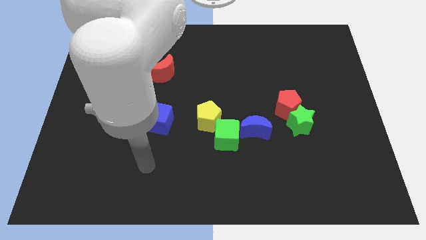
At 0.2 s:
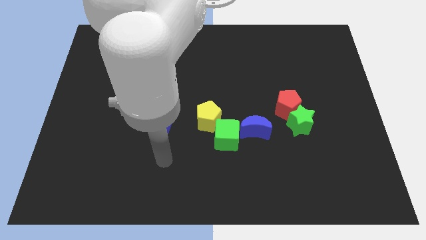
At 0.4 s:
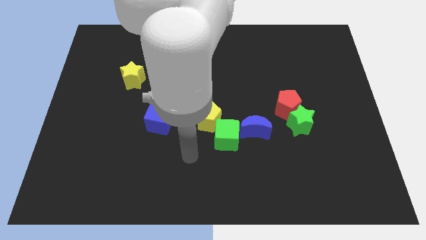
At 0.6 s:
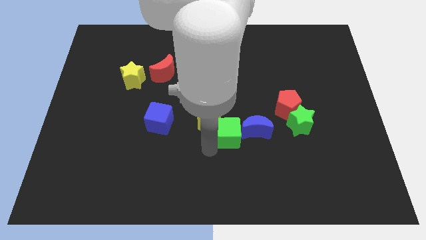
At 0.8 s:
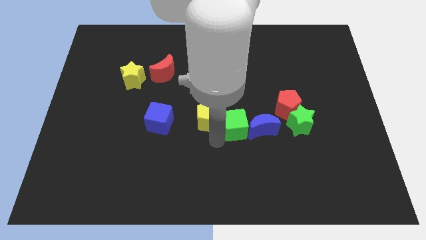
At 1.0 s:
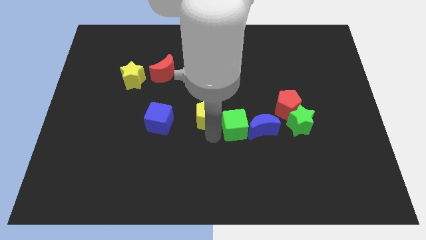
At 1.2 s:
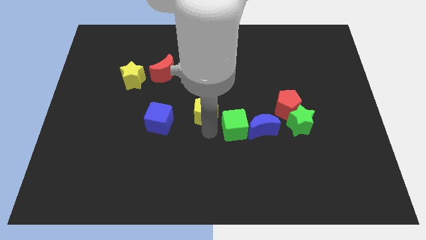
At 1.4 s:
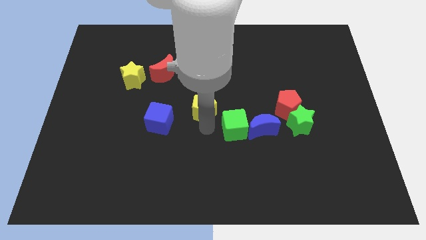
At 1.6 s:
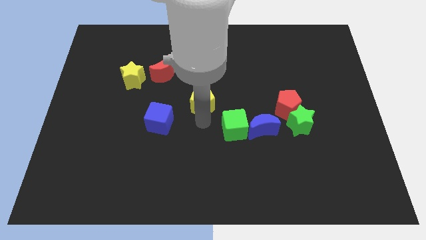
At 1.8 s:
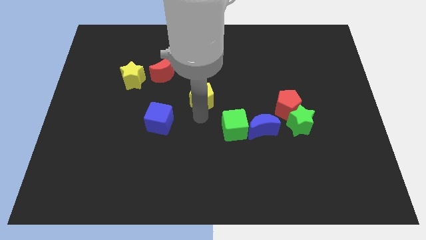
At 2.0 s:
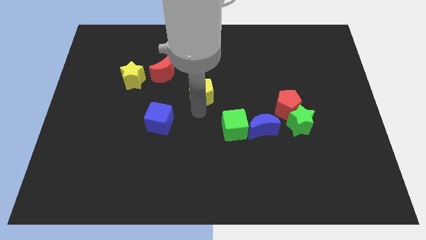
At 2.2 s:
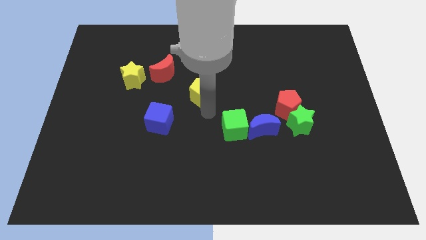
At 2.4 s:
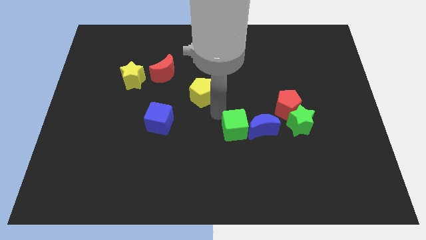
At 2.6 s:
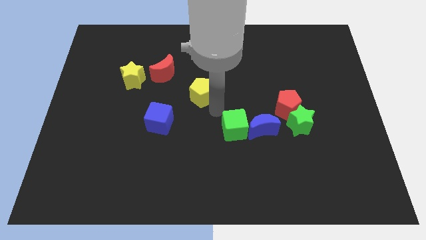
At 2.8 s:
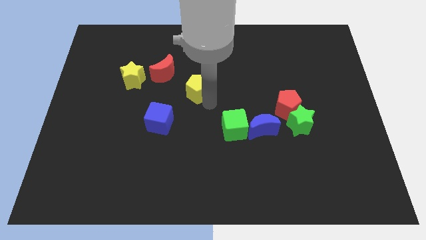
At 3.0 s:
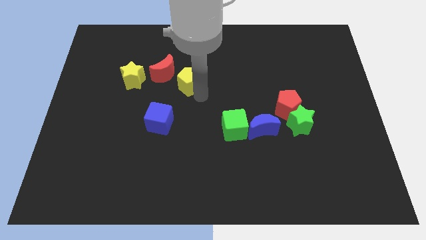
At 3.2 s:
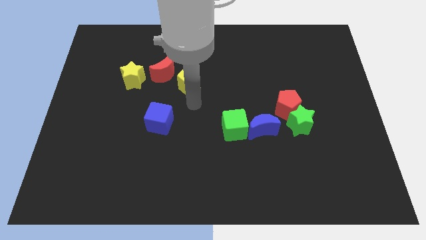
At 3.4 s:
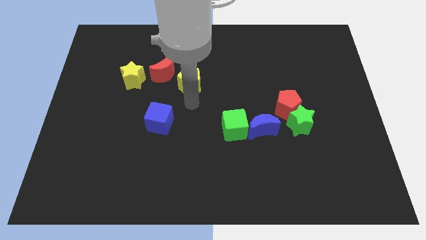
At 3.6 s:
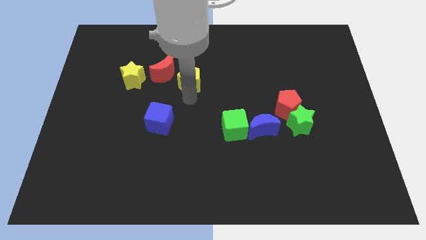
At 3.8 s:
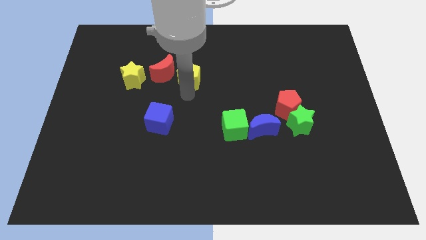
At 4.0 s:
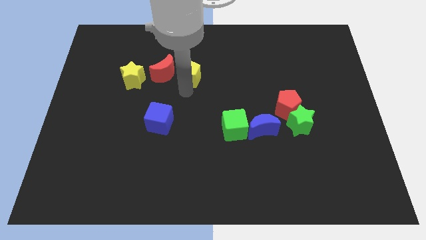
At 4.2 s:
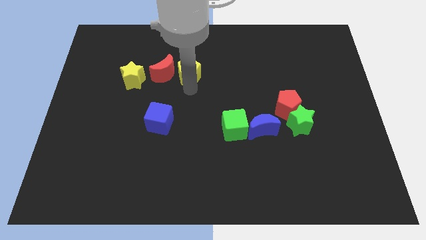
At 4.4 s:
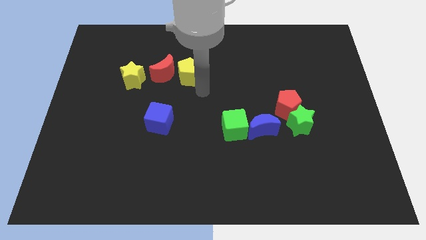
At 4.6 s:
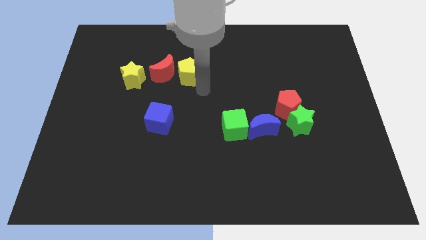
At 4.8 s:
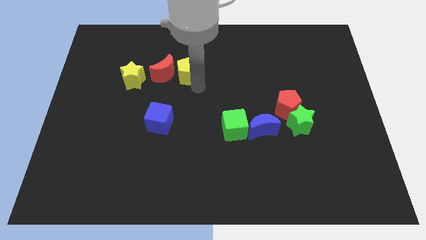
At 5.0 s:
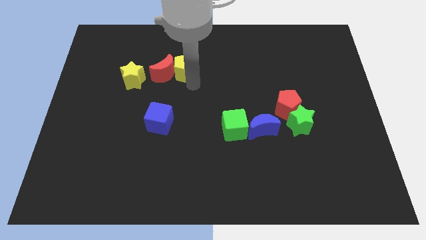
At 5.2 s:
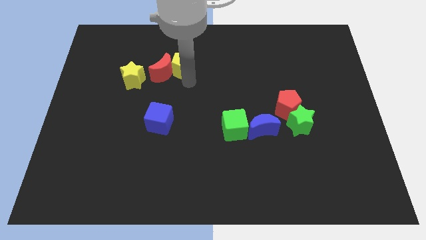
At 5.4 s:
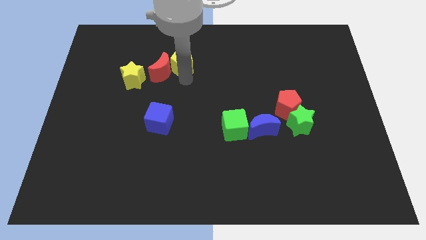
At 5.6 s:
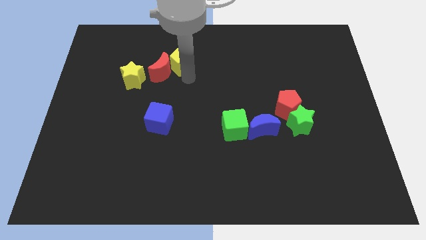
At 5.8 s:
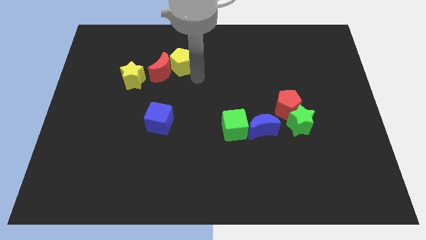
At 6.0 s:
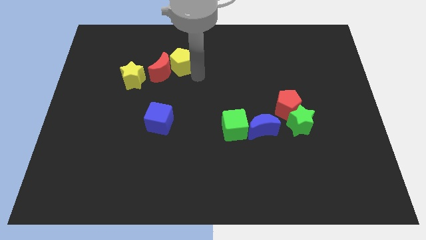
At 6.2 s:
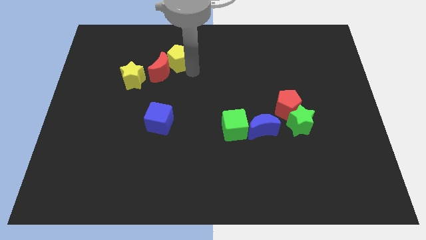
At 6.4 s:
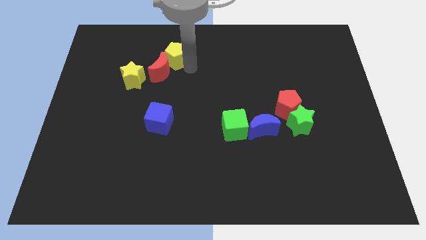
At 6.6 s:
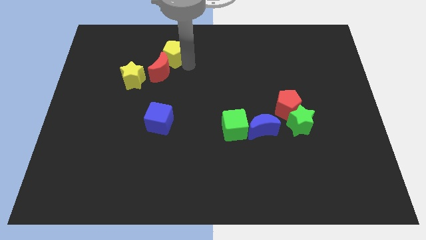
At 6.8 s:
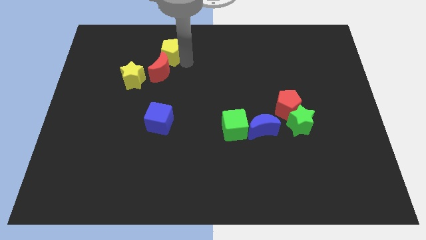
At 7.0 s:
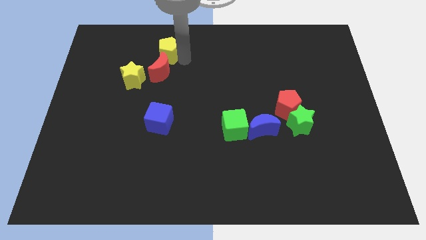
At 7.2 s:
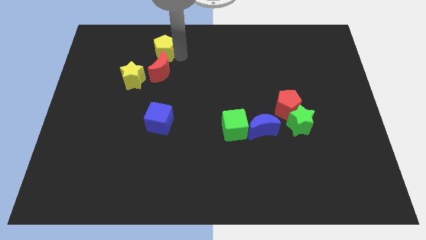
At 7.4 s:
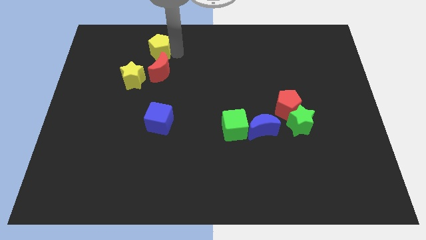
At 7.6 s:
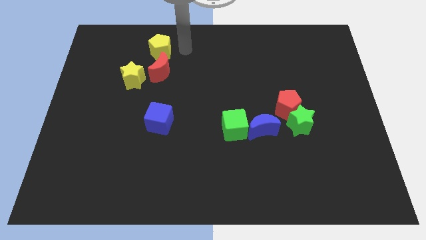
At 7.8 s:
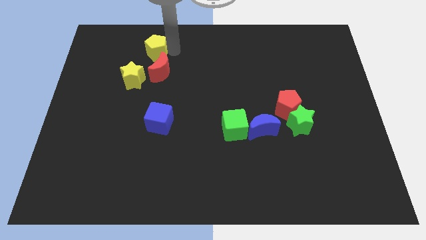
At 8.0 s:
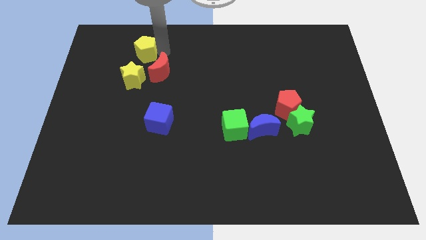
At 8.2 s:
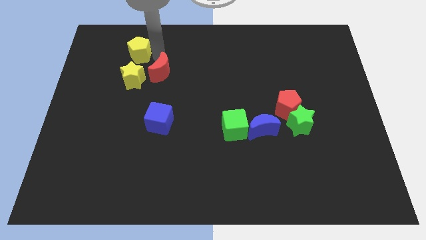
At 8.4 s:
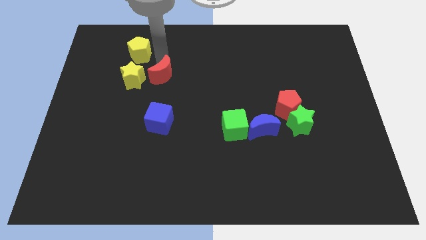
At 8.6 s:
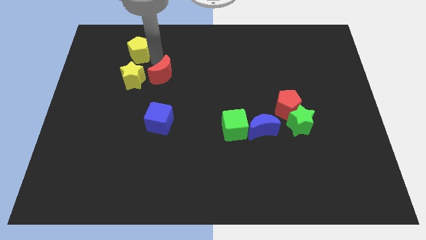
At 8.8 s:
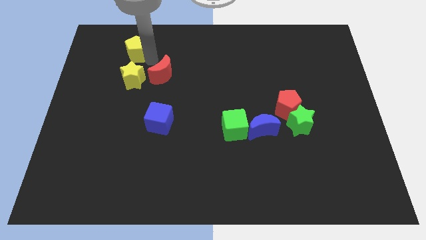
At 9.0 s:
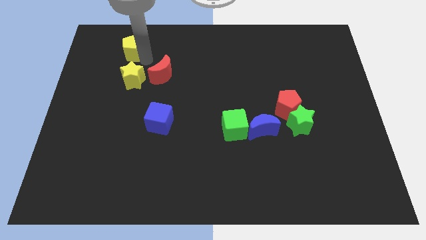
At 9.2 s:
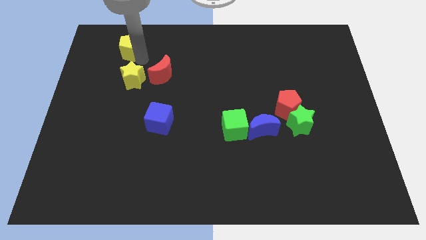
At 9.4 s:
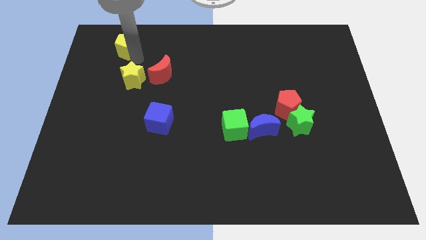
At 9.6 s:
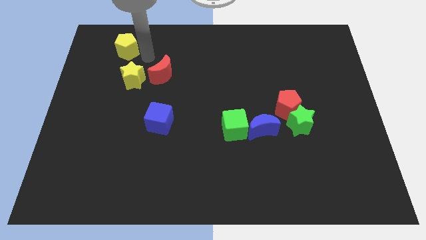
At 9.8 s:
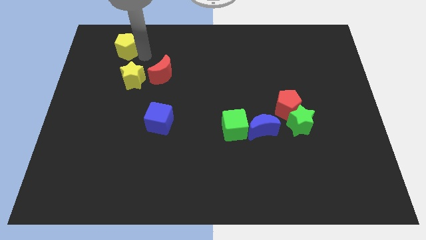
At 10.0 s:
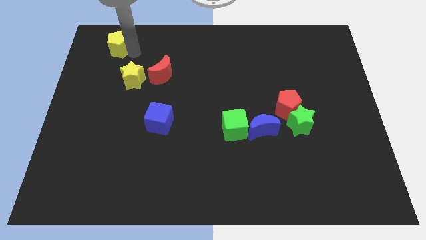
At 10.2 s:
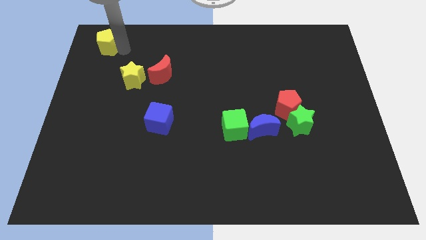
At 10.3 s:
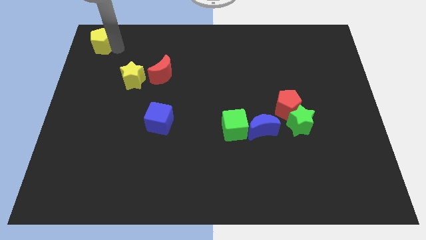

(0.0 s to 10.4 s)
move the yellow pentagon to the top left corner

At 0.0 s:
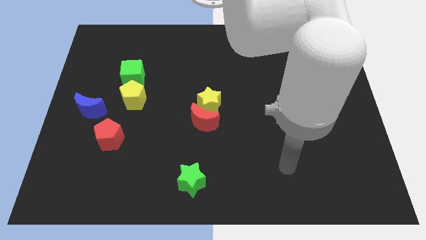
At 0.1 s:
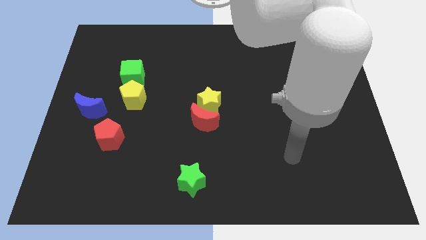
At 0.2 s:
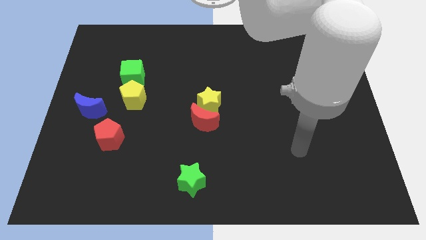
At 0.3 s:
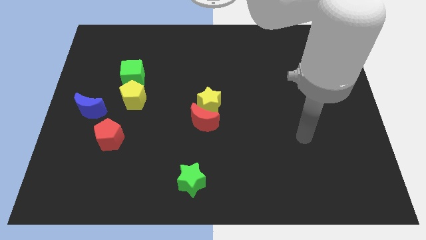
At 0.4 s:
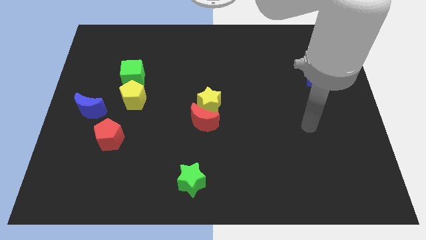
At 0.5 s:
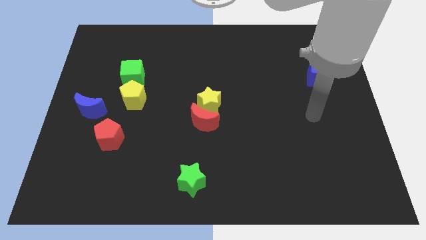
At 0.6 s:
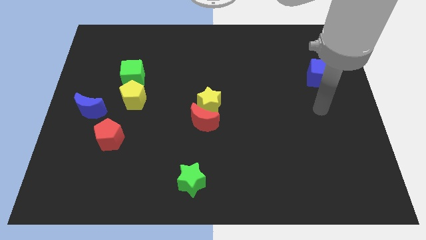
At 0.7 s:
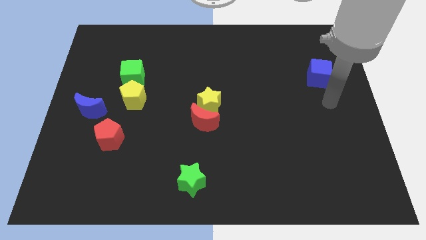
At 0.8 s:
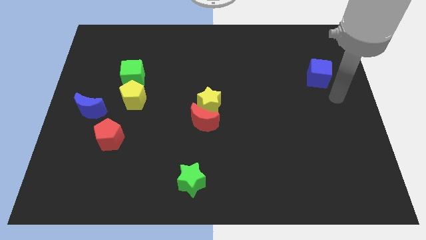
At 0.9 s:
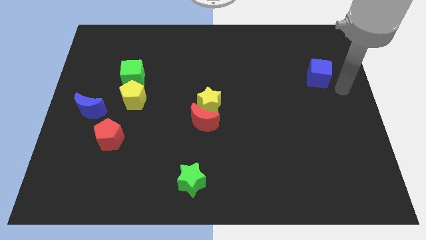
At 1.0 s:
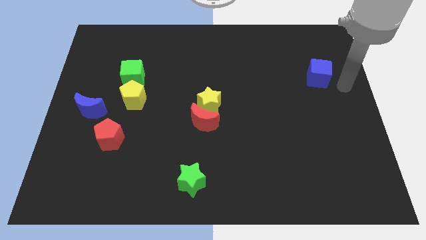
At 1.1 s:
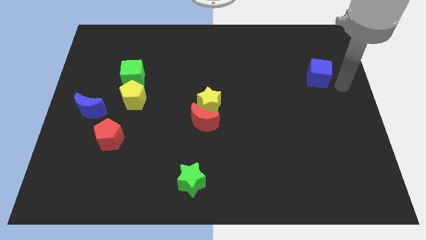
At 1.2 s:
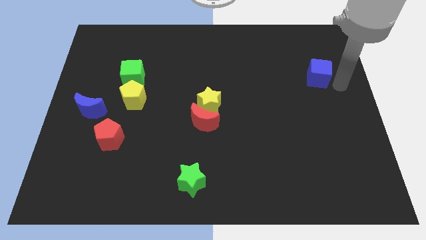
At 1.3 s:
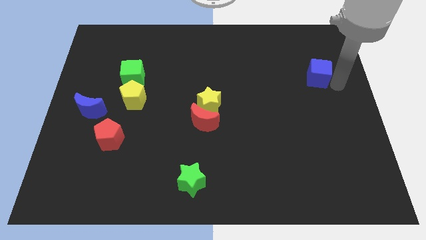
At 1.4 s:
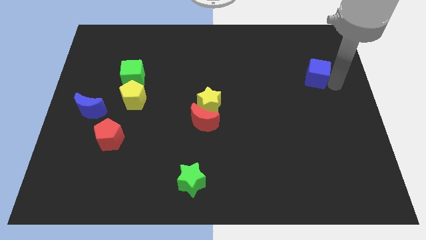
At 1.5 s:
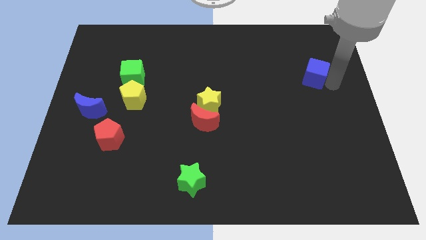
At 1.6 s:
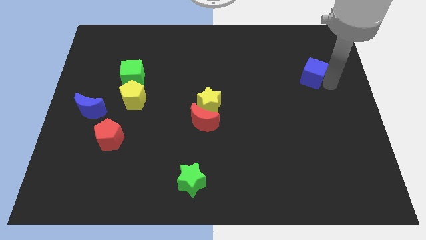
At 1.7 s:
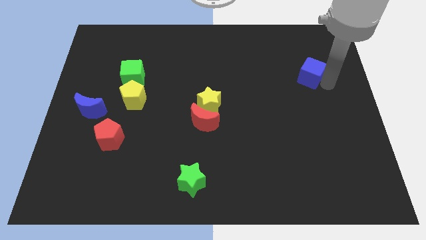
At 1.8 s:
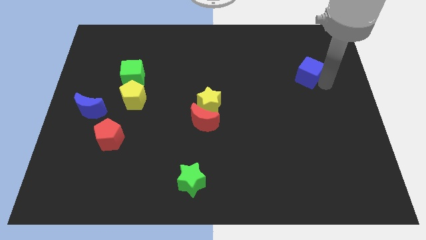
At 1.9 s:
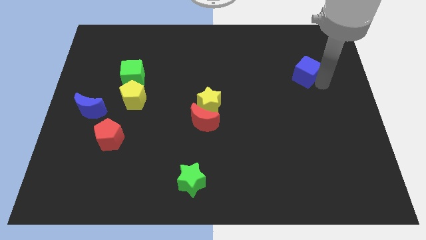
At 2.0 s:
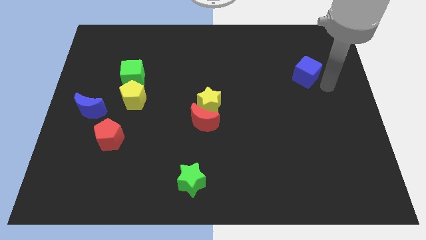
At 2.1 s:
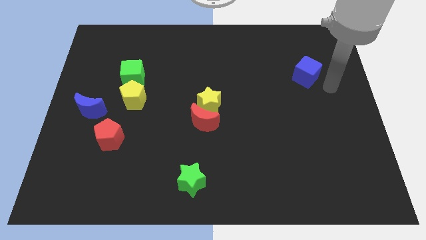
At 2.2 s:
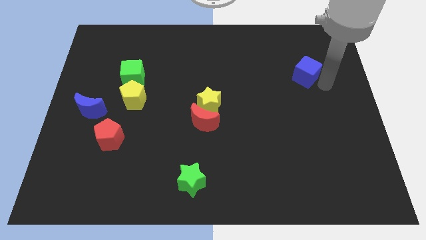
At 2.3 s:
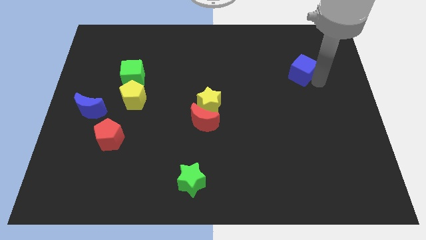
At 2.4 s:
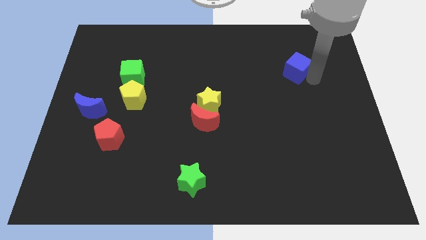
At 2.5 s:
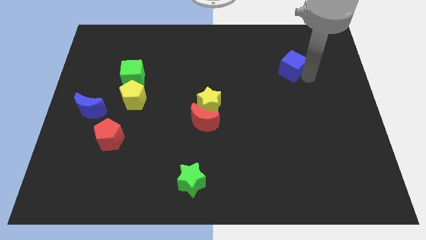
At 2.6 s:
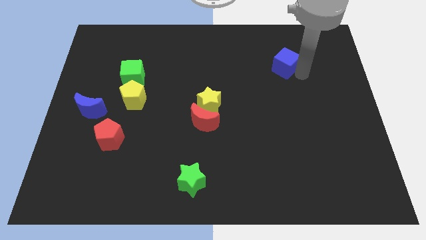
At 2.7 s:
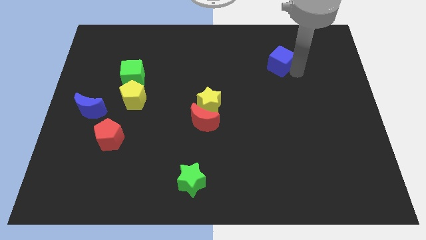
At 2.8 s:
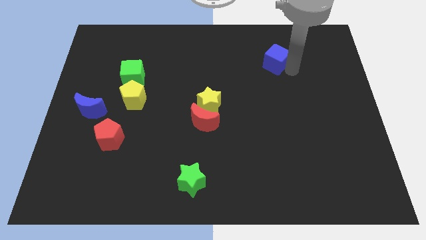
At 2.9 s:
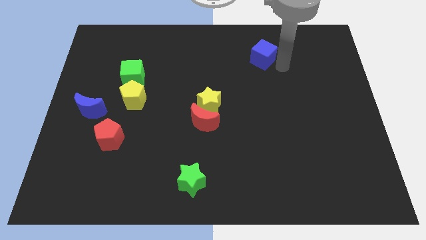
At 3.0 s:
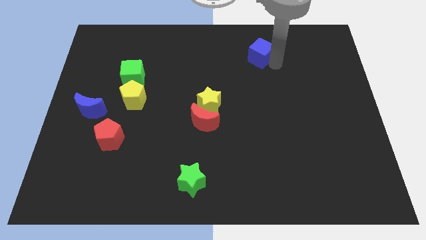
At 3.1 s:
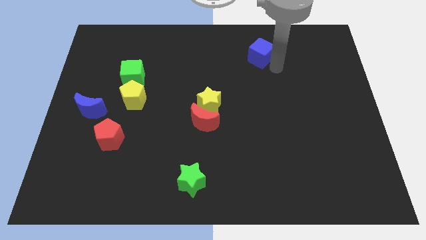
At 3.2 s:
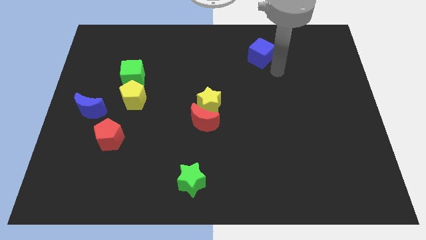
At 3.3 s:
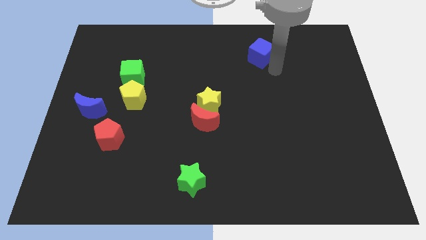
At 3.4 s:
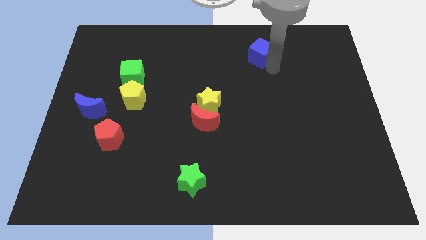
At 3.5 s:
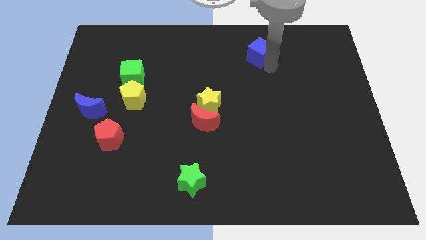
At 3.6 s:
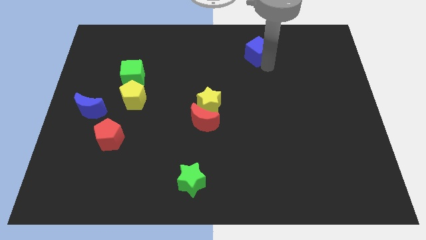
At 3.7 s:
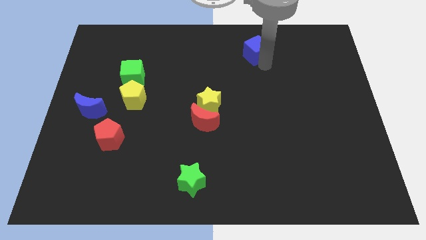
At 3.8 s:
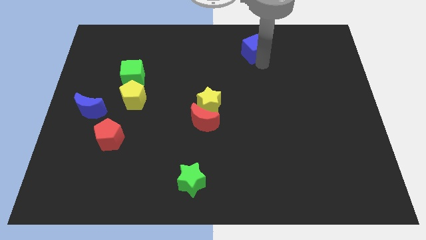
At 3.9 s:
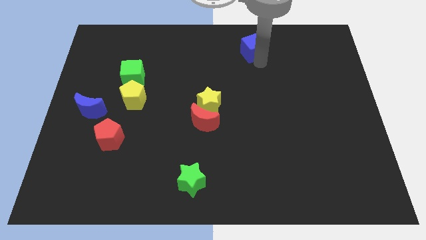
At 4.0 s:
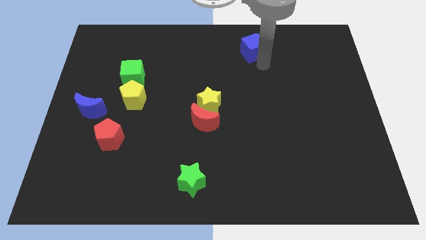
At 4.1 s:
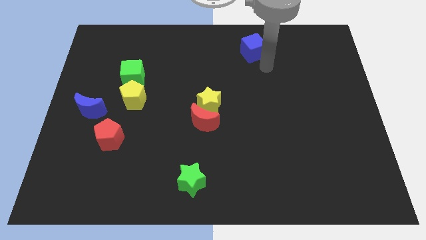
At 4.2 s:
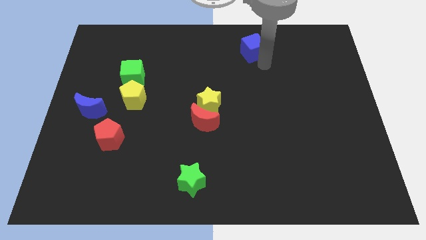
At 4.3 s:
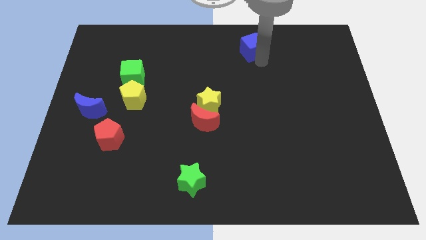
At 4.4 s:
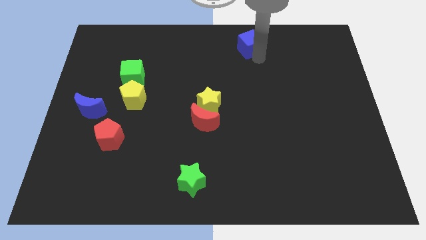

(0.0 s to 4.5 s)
move the blue cube to the top side
